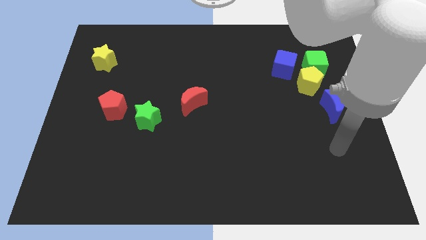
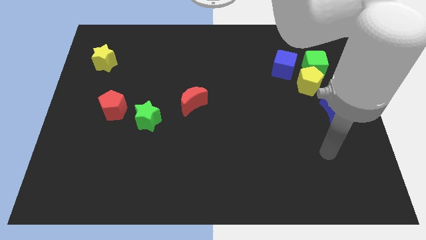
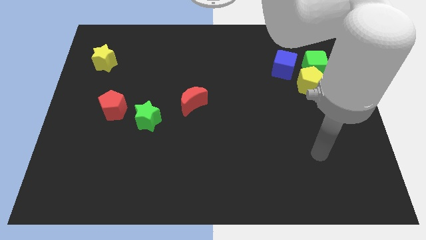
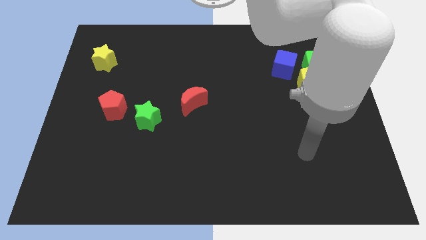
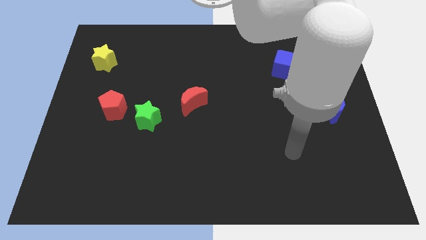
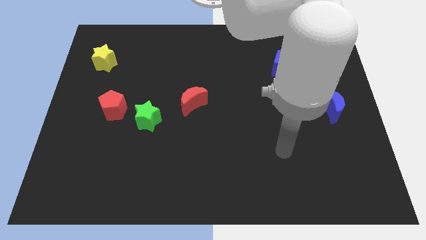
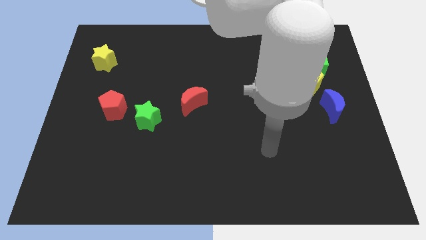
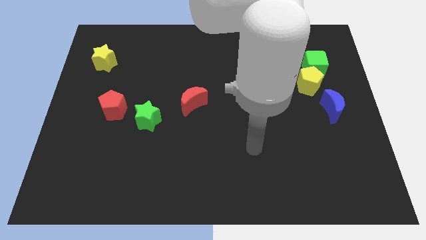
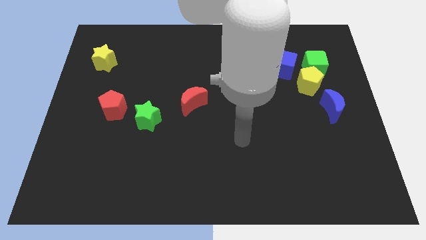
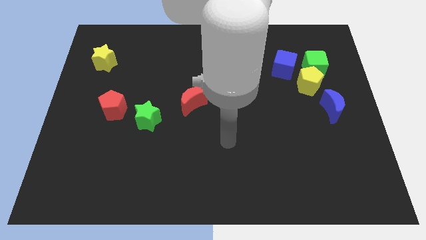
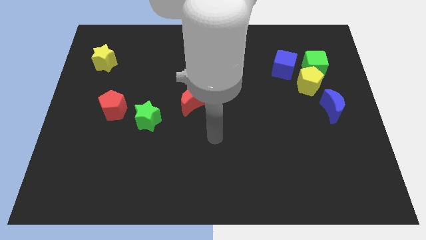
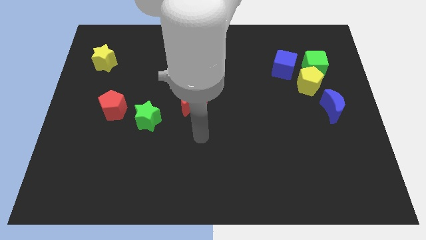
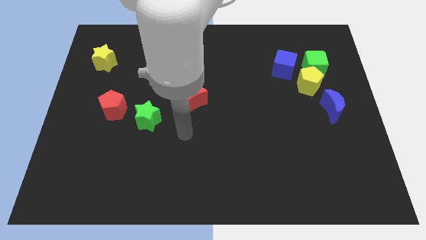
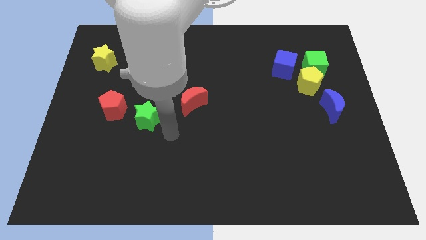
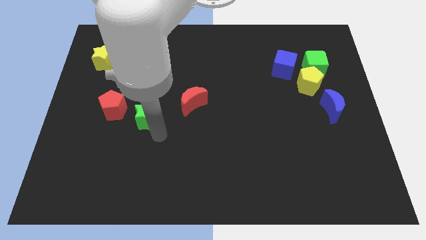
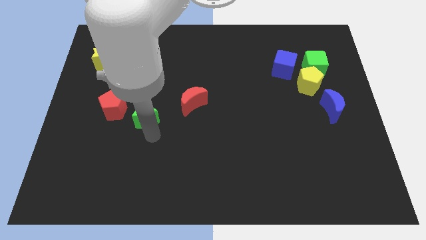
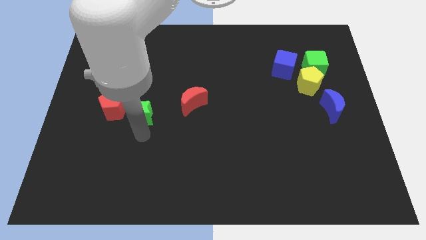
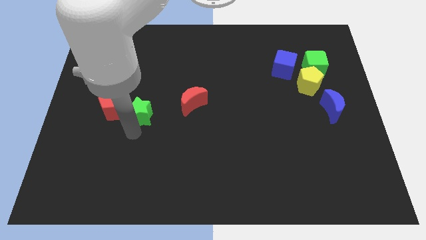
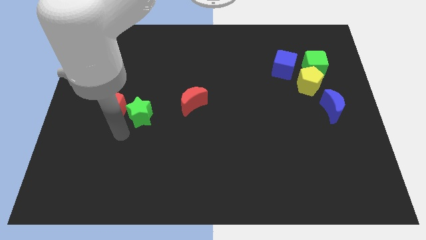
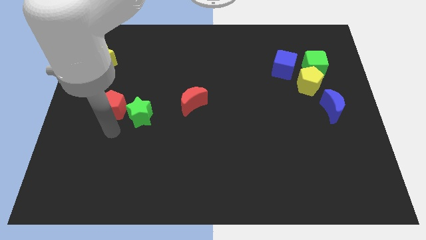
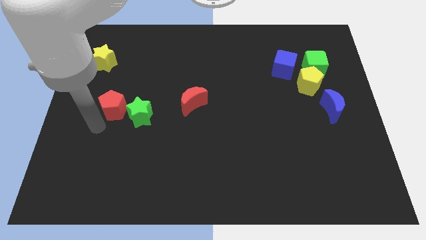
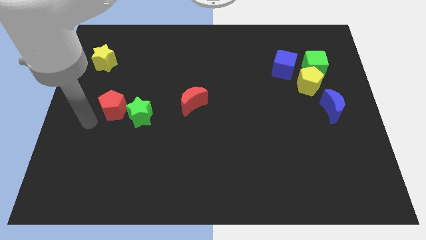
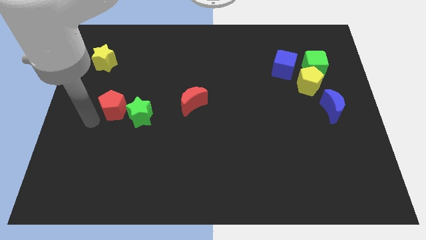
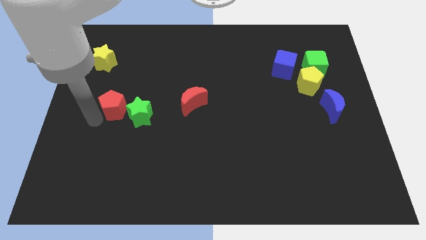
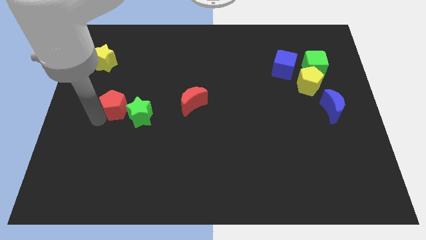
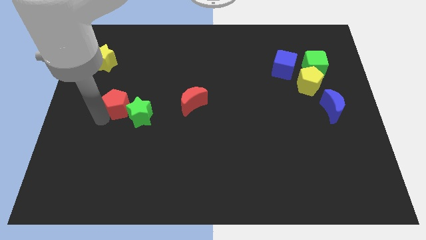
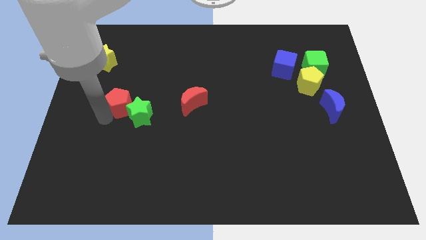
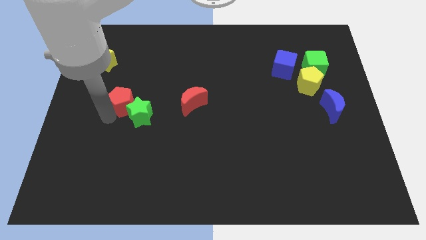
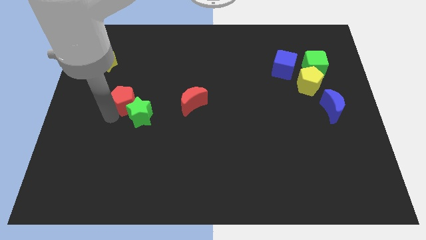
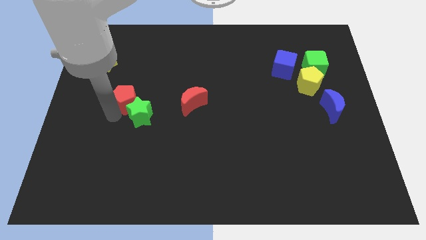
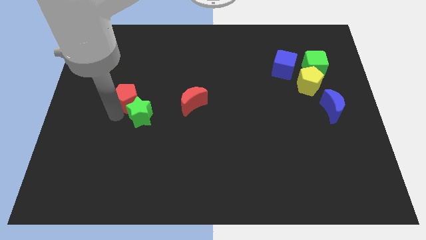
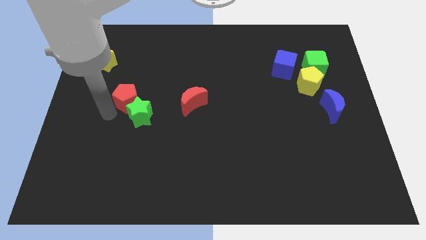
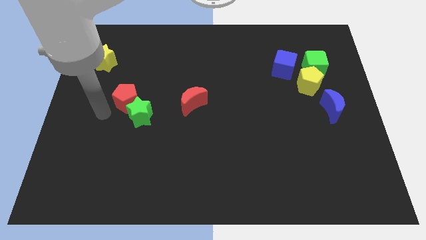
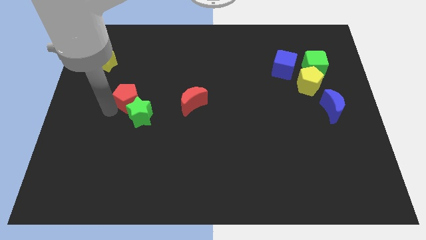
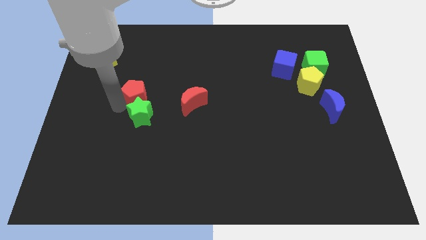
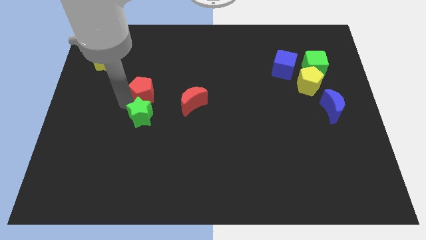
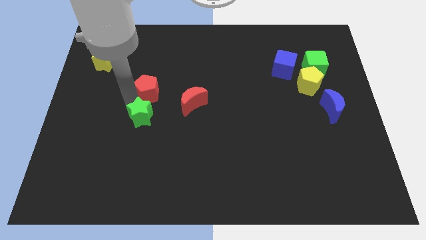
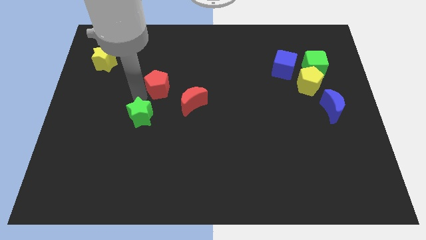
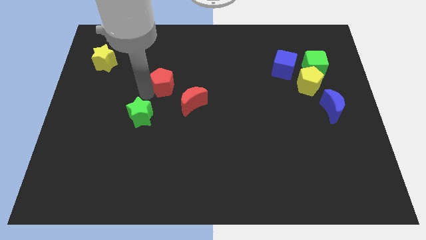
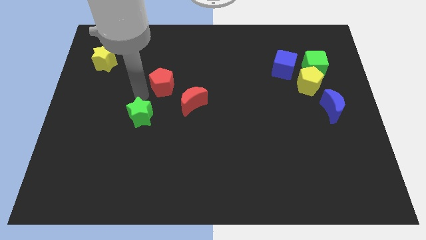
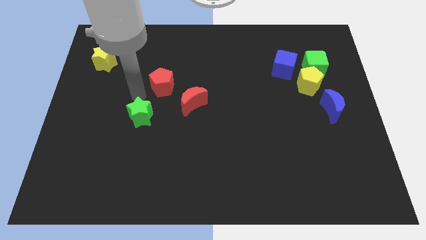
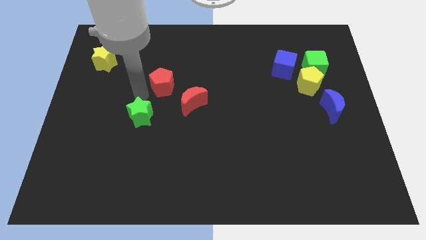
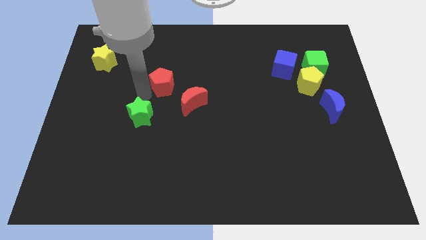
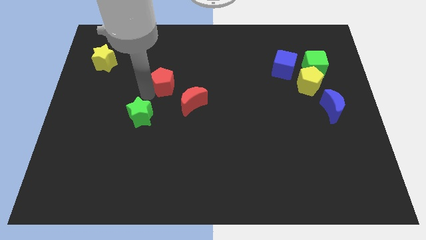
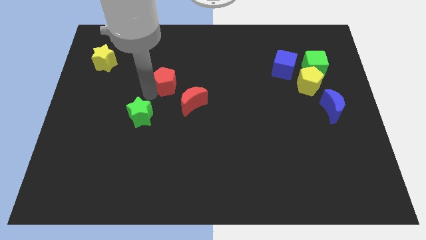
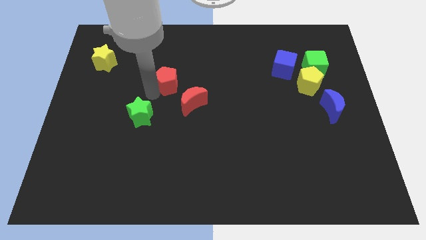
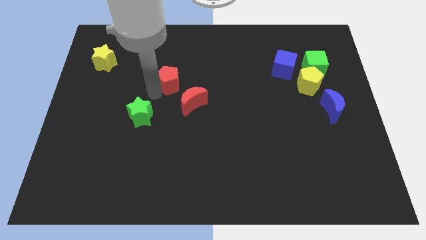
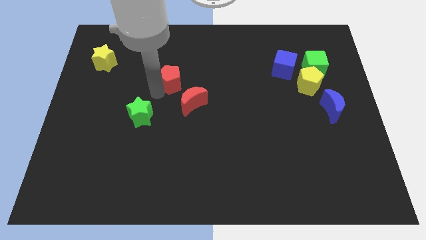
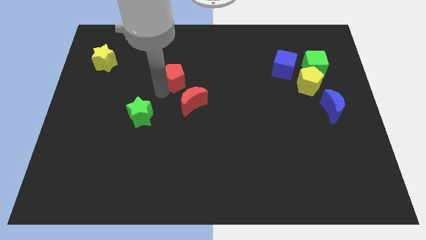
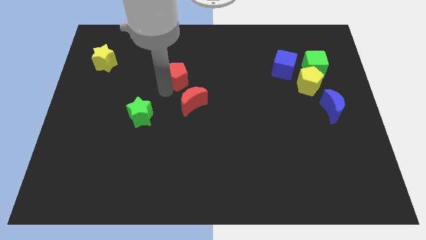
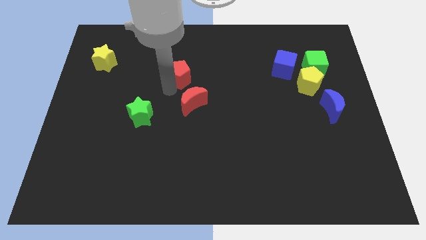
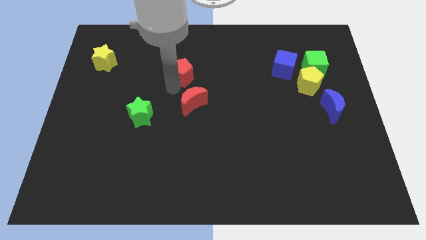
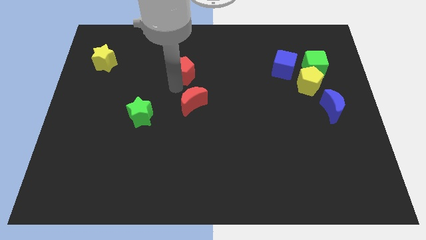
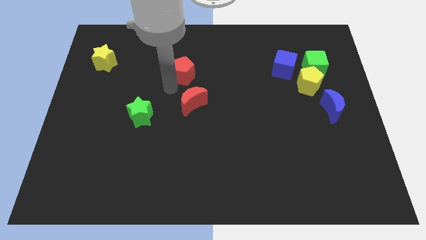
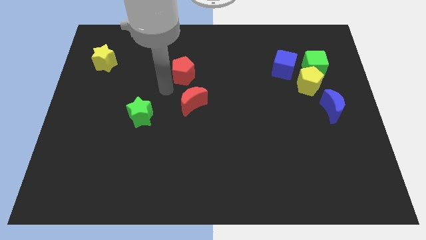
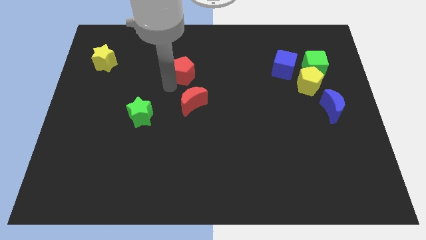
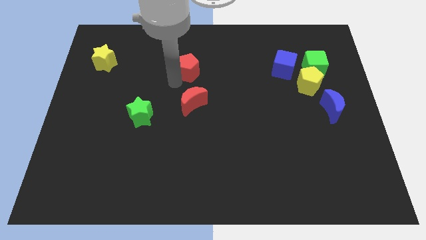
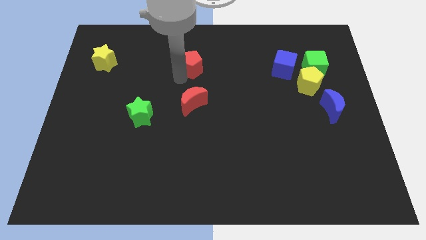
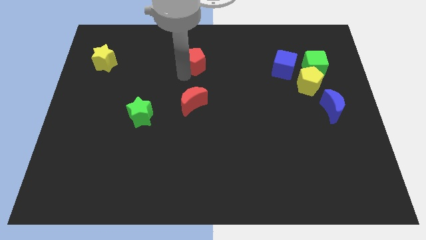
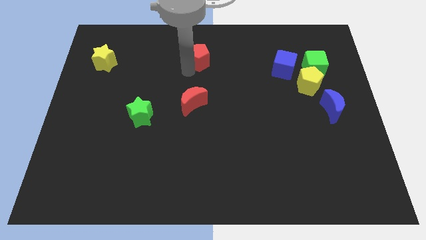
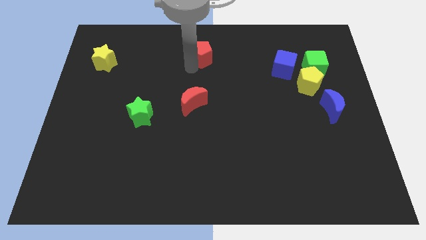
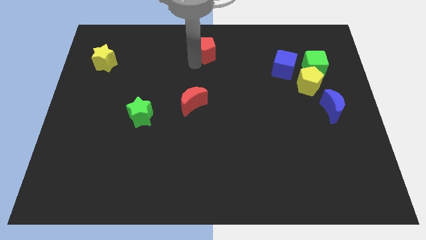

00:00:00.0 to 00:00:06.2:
move the red pentagon to the towards your base
